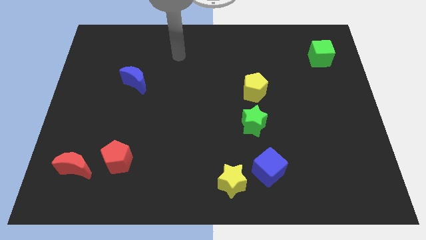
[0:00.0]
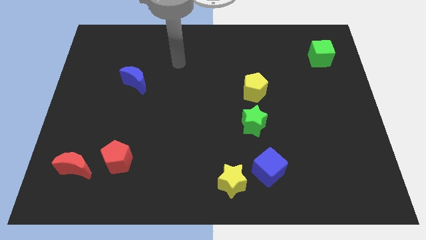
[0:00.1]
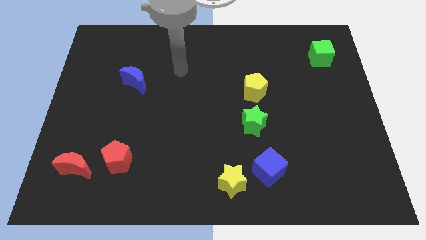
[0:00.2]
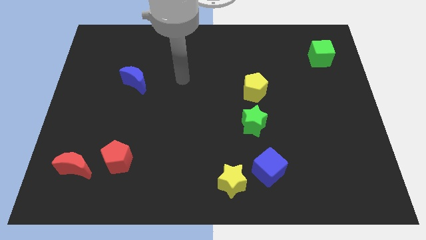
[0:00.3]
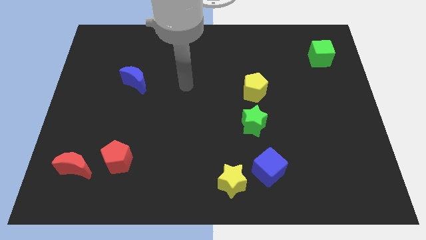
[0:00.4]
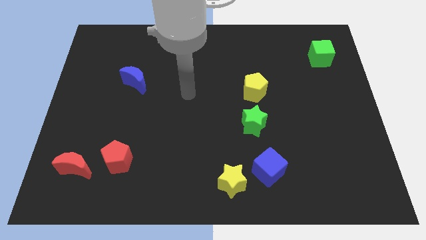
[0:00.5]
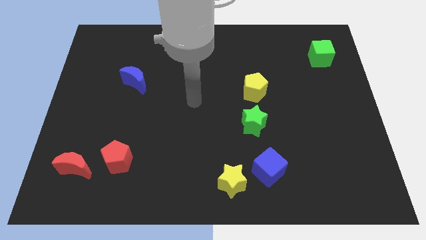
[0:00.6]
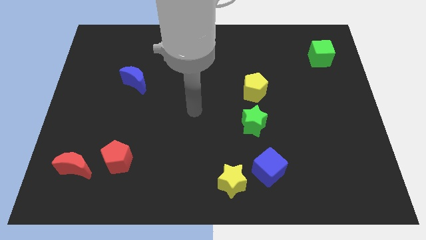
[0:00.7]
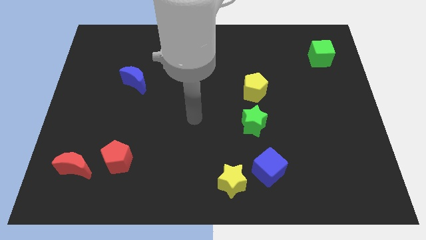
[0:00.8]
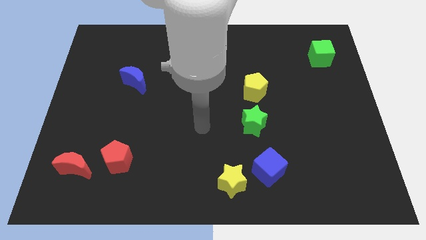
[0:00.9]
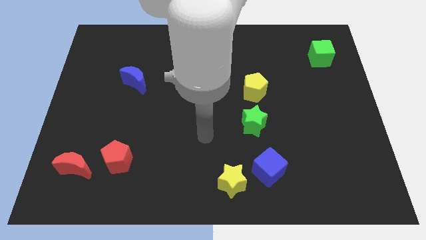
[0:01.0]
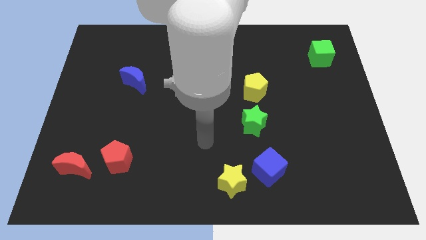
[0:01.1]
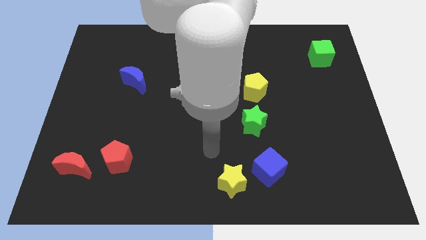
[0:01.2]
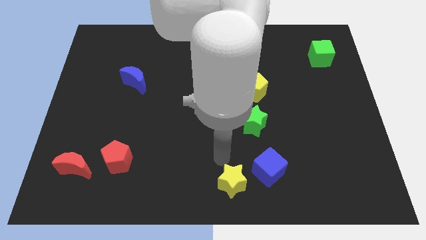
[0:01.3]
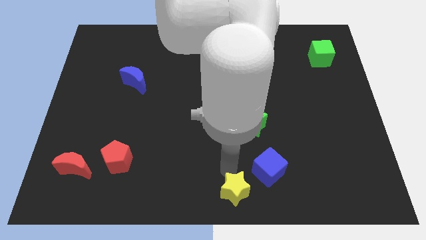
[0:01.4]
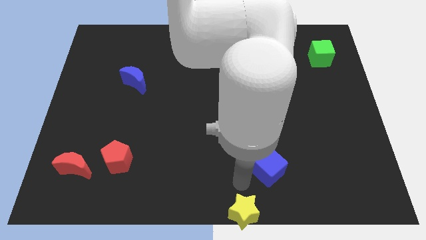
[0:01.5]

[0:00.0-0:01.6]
pull the blue cube apart from the yellow star

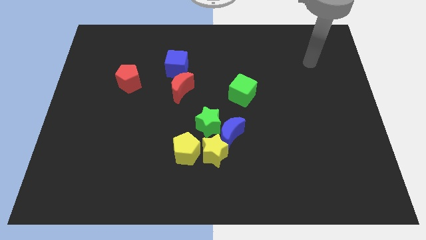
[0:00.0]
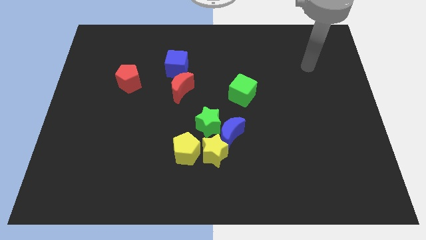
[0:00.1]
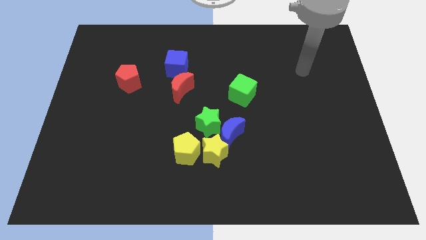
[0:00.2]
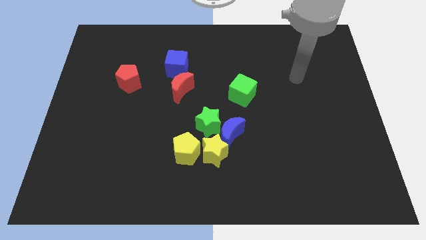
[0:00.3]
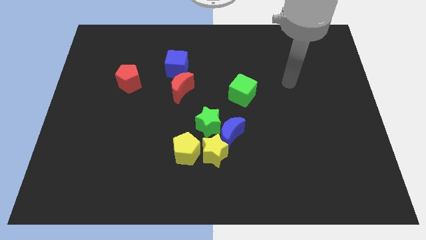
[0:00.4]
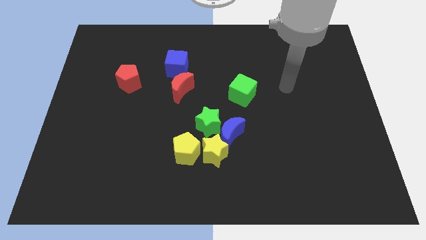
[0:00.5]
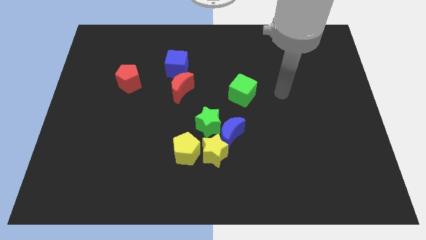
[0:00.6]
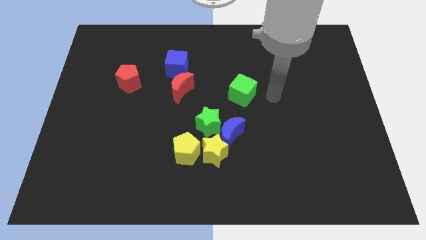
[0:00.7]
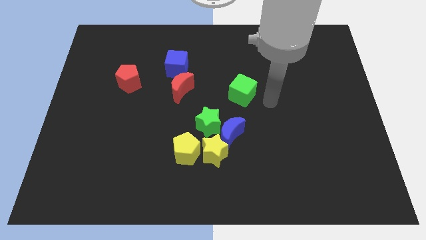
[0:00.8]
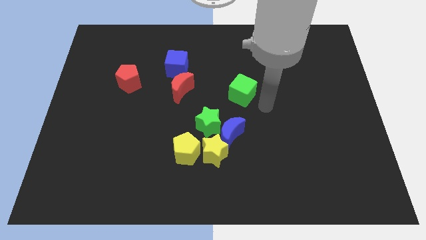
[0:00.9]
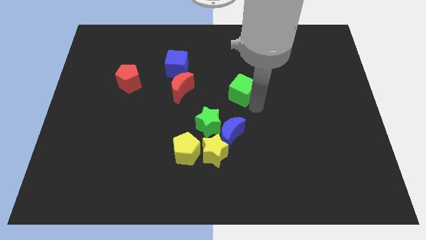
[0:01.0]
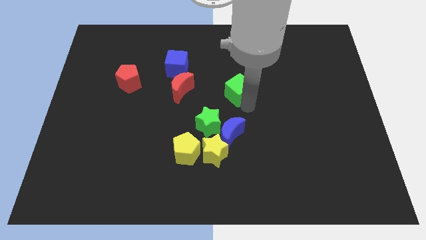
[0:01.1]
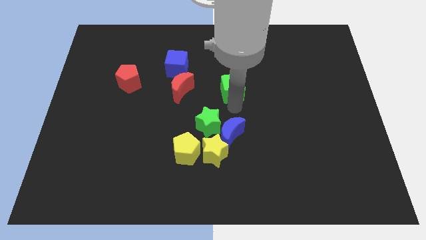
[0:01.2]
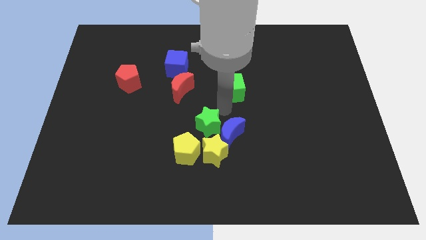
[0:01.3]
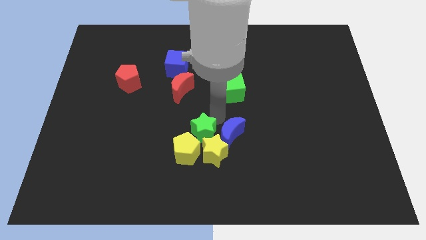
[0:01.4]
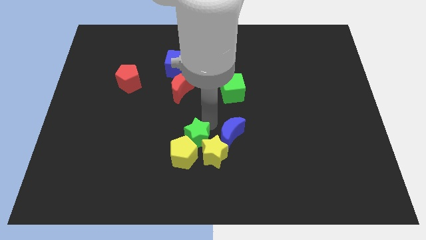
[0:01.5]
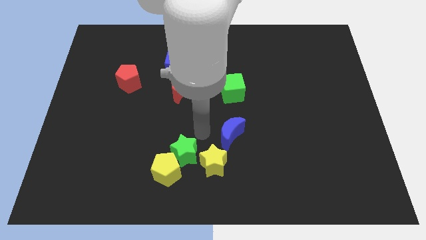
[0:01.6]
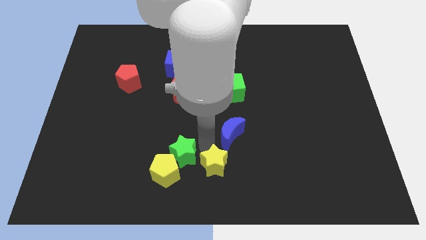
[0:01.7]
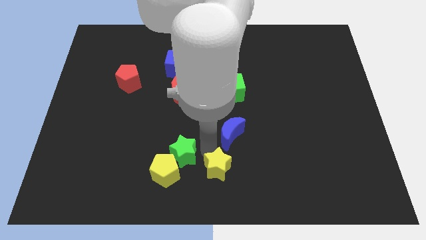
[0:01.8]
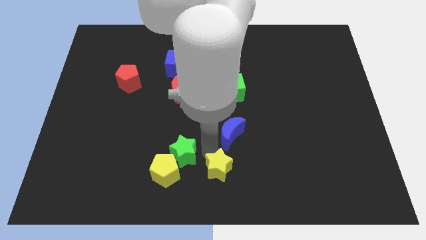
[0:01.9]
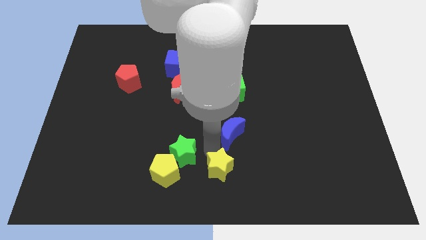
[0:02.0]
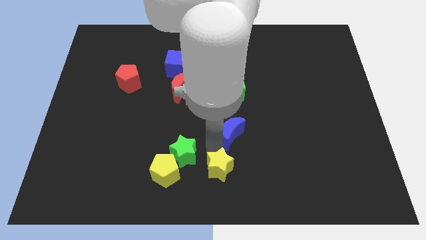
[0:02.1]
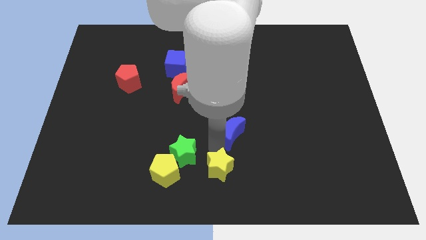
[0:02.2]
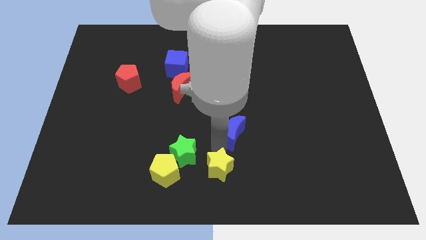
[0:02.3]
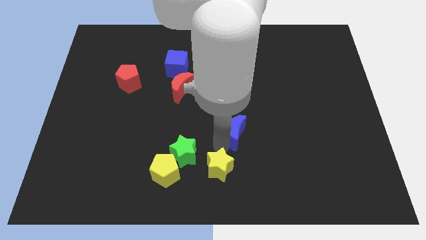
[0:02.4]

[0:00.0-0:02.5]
pull the blue moon apart from the green star and yellow star

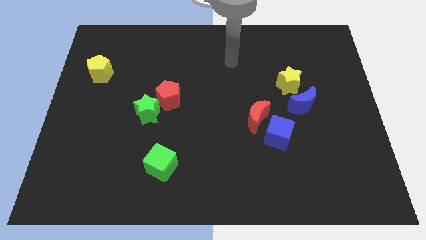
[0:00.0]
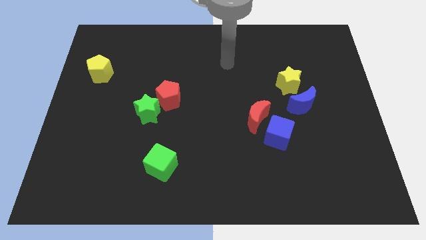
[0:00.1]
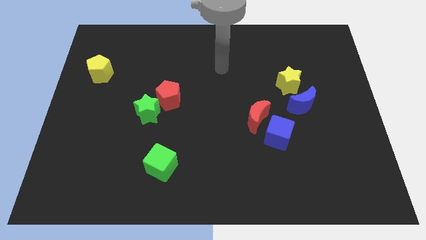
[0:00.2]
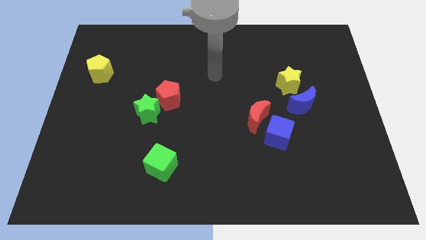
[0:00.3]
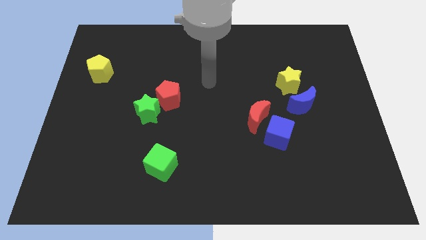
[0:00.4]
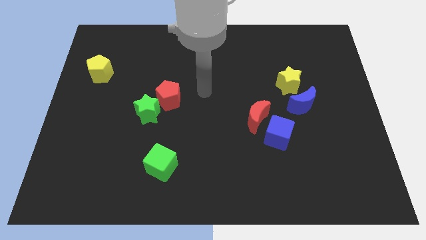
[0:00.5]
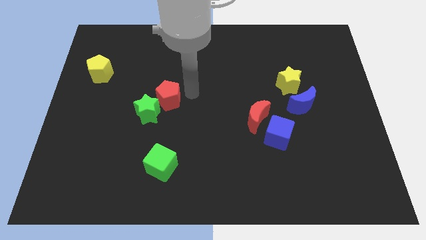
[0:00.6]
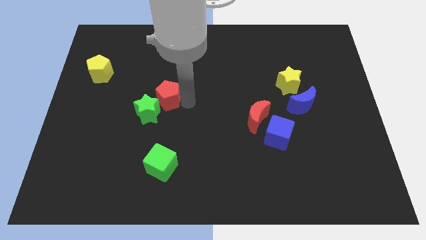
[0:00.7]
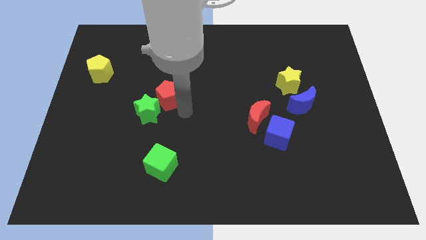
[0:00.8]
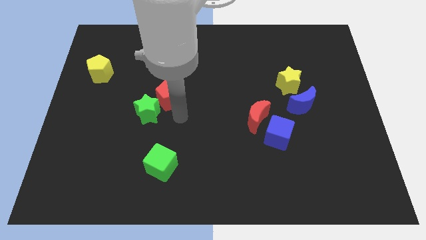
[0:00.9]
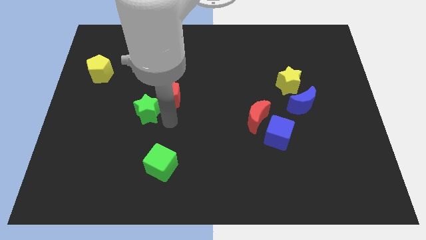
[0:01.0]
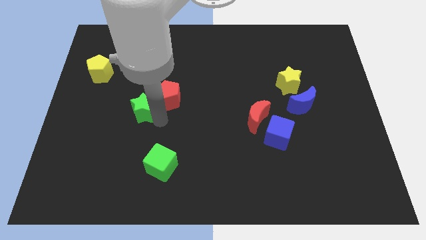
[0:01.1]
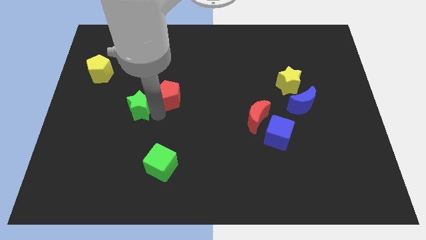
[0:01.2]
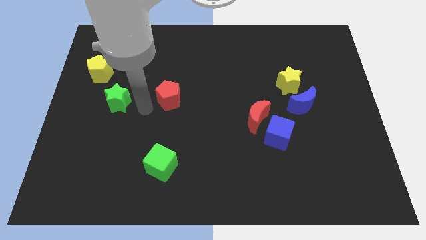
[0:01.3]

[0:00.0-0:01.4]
move the red pentagon away from the green star

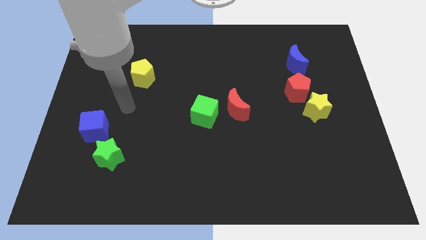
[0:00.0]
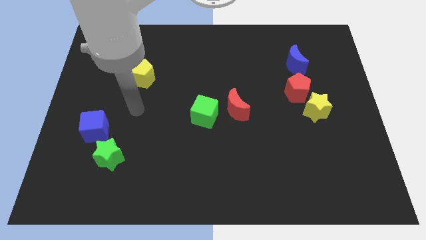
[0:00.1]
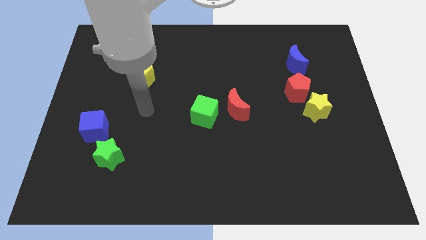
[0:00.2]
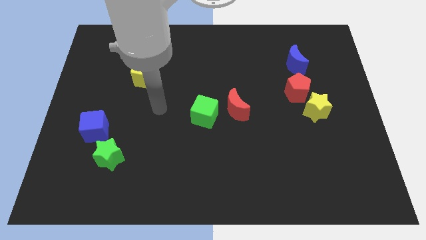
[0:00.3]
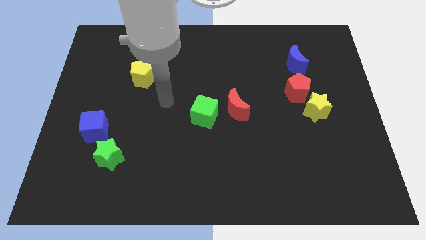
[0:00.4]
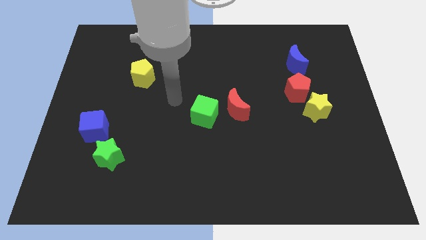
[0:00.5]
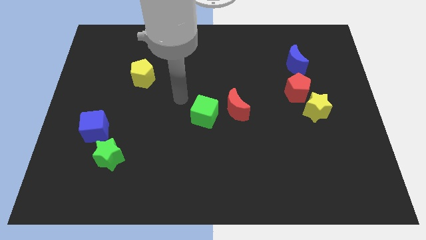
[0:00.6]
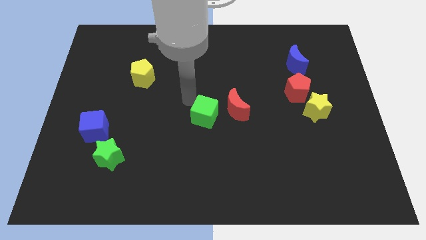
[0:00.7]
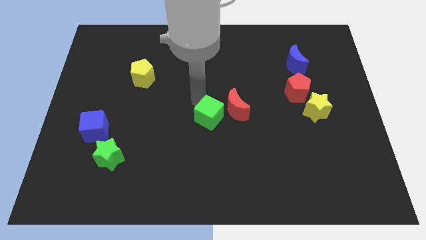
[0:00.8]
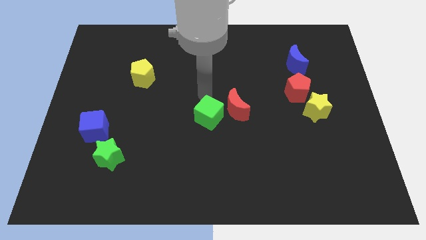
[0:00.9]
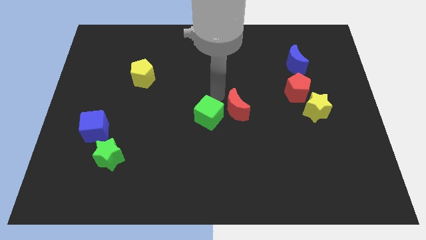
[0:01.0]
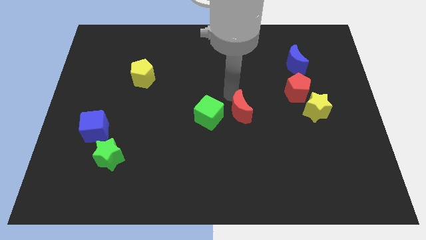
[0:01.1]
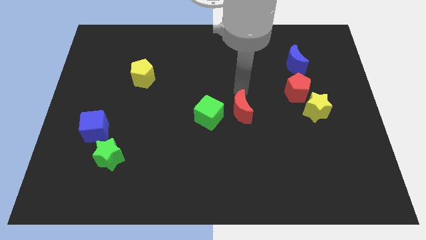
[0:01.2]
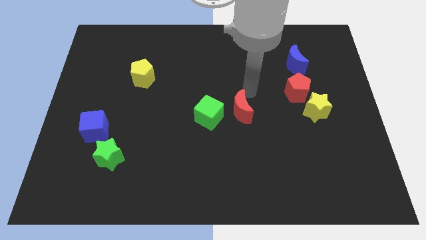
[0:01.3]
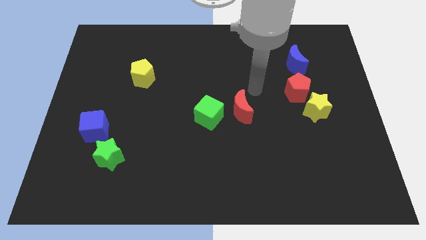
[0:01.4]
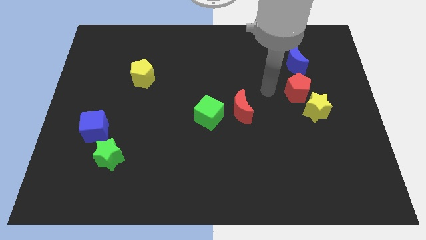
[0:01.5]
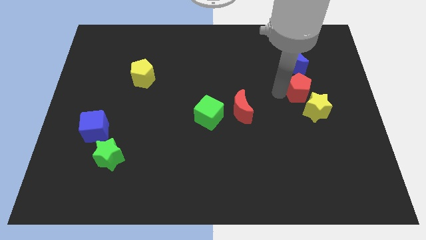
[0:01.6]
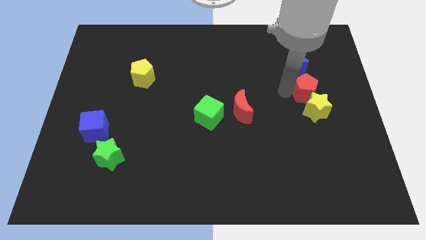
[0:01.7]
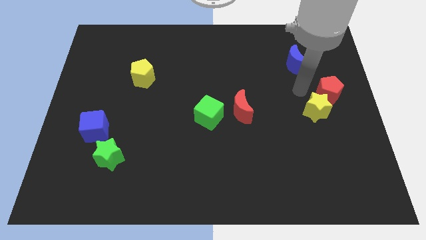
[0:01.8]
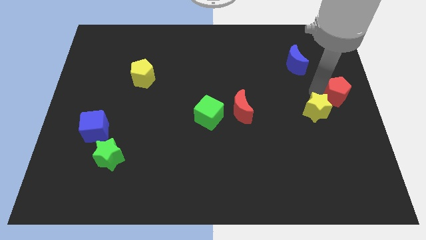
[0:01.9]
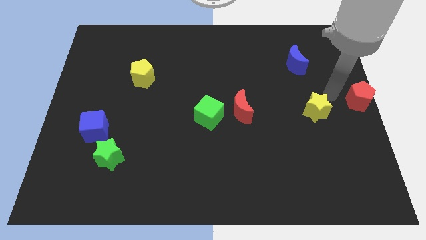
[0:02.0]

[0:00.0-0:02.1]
pull the yellow star apart from the red pentagon

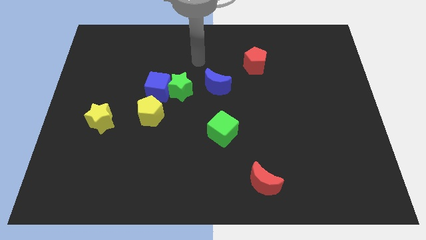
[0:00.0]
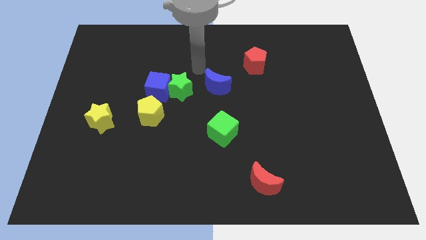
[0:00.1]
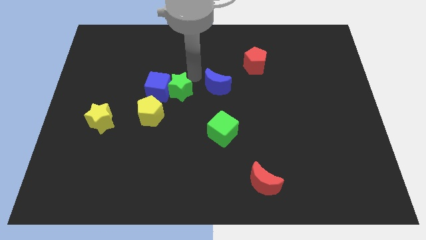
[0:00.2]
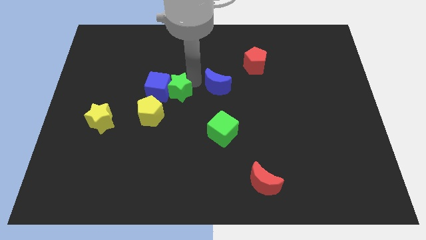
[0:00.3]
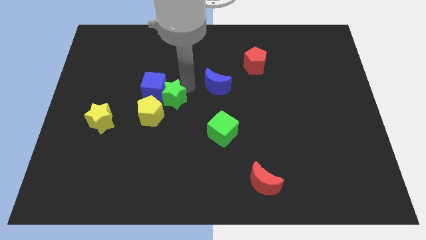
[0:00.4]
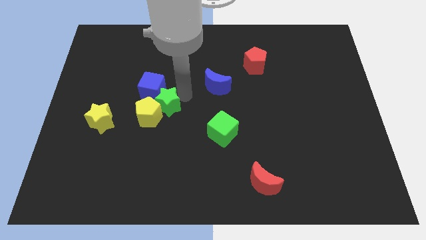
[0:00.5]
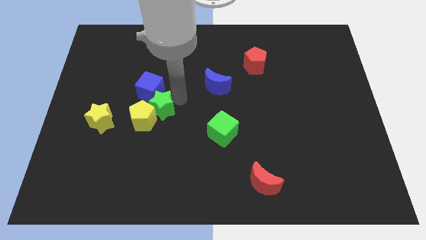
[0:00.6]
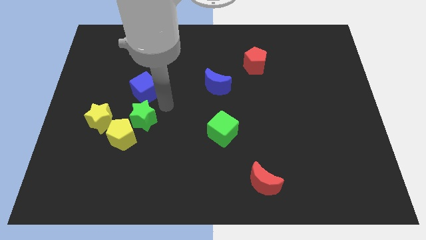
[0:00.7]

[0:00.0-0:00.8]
move the blue cube away from the green star and yellow pentagon

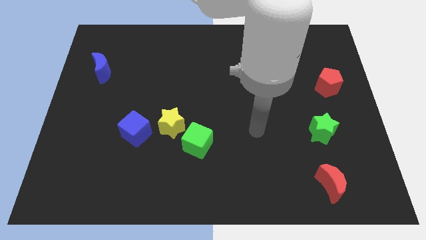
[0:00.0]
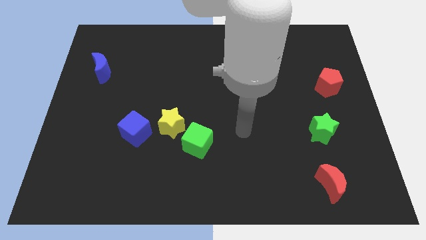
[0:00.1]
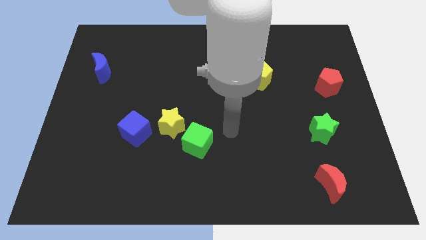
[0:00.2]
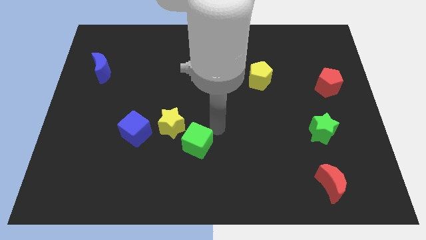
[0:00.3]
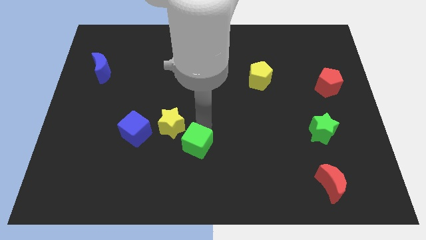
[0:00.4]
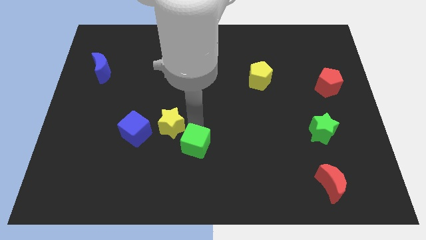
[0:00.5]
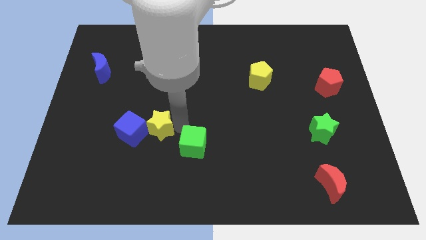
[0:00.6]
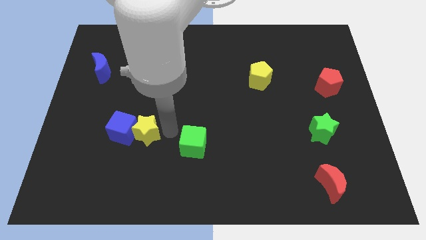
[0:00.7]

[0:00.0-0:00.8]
separate the green cube from the yellow star
